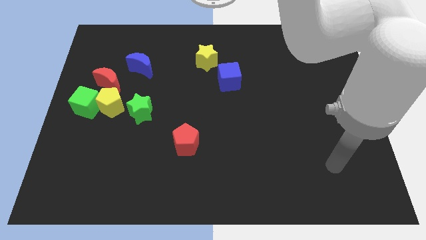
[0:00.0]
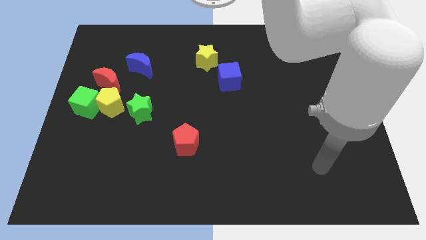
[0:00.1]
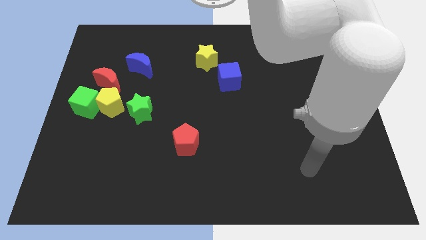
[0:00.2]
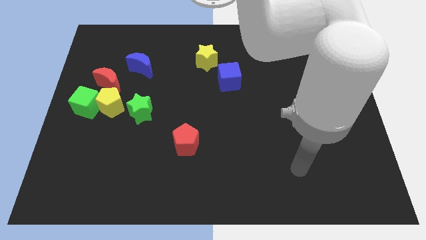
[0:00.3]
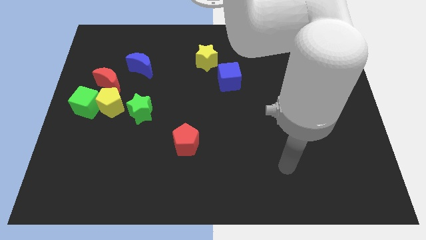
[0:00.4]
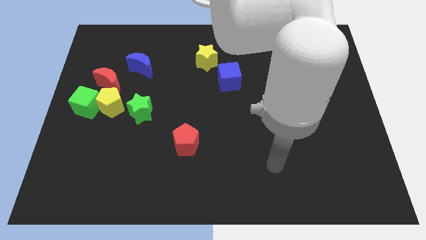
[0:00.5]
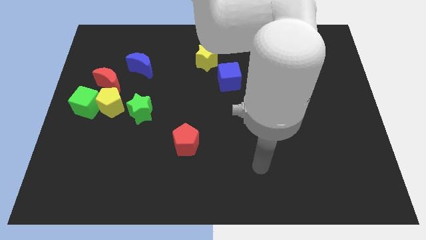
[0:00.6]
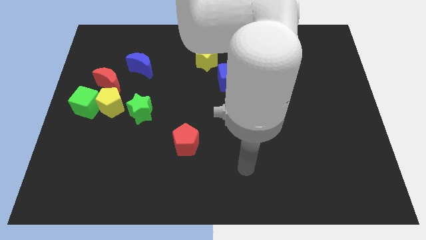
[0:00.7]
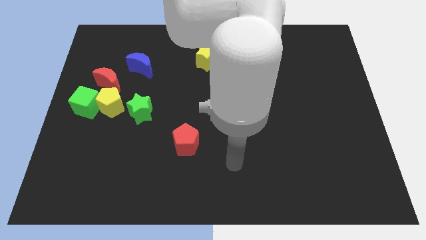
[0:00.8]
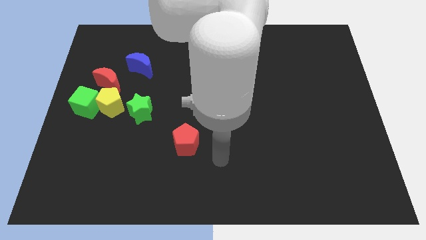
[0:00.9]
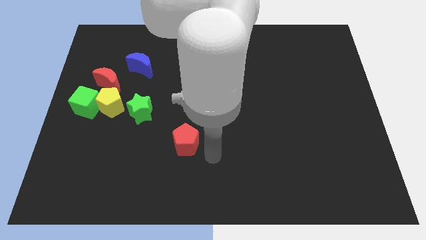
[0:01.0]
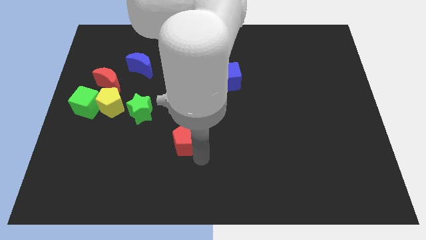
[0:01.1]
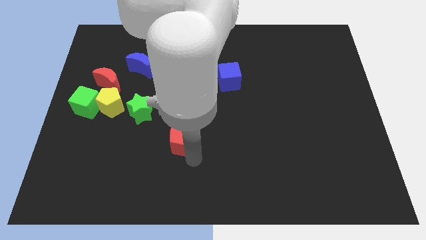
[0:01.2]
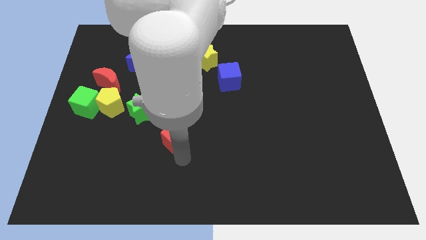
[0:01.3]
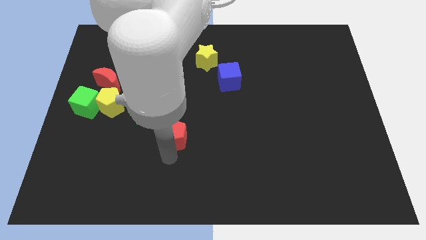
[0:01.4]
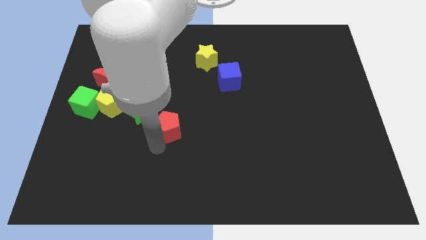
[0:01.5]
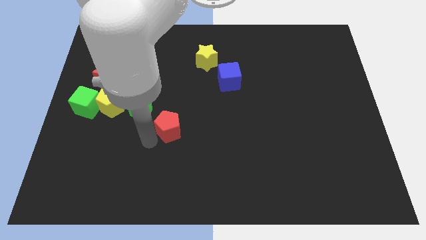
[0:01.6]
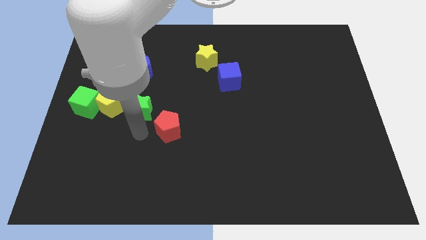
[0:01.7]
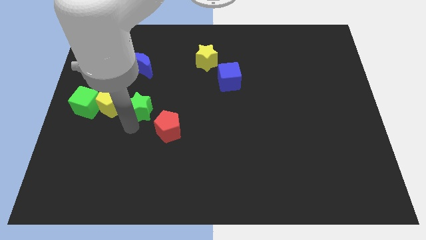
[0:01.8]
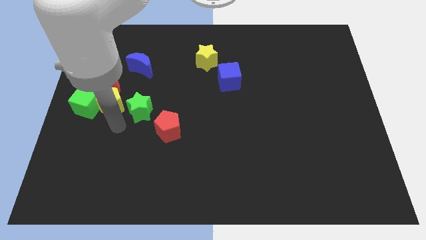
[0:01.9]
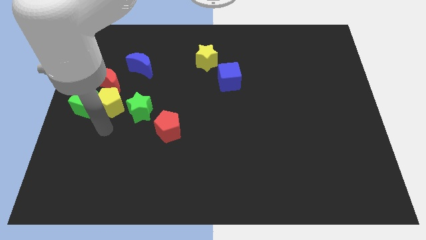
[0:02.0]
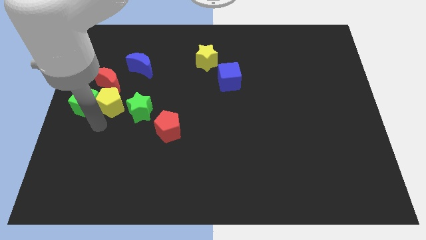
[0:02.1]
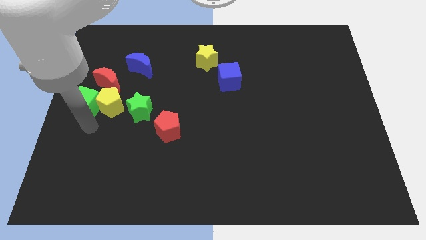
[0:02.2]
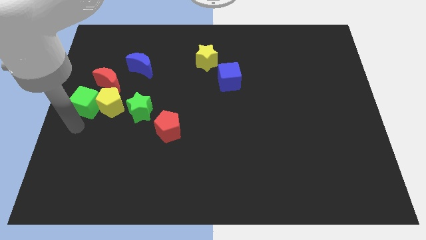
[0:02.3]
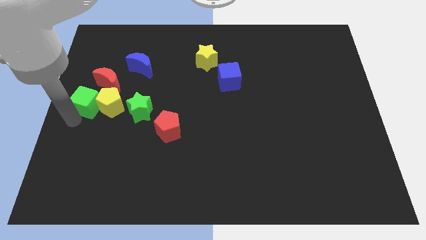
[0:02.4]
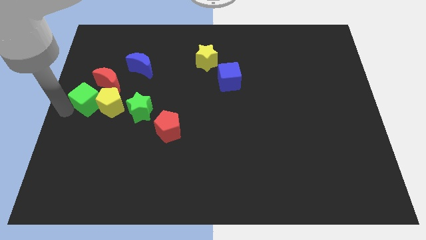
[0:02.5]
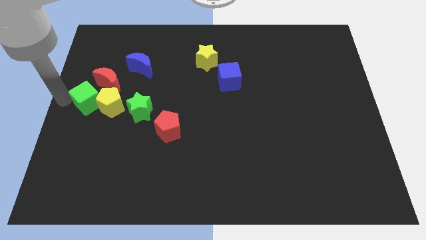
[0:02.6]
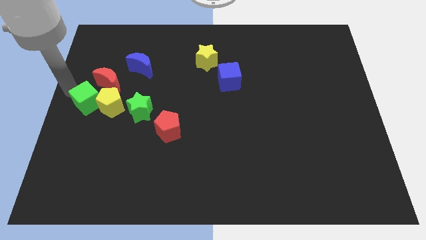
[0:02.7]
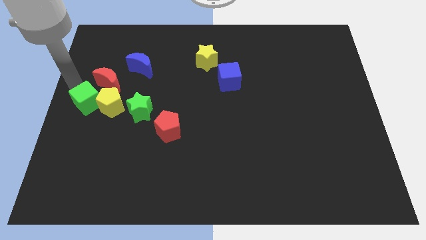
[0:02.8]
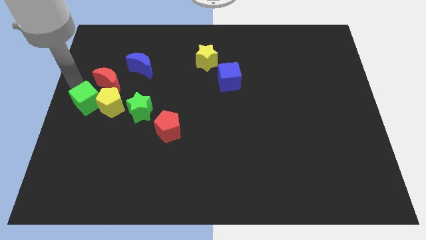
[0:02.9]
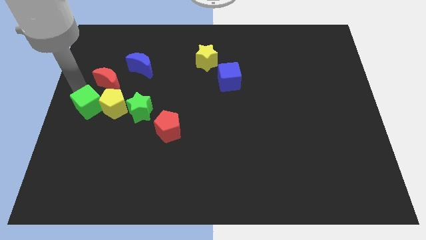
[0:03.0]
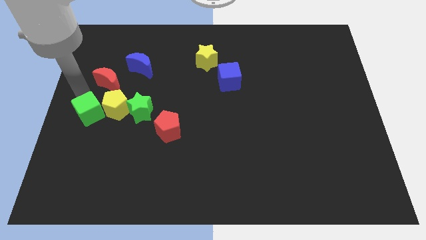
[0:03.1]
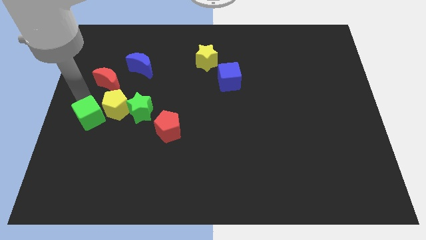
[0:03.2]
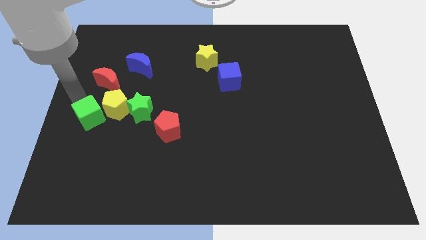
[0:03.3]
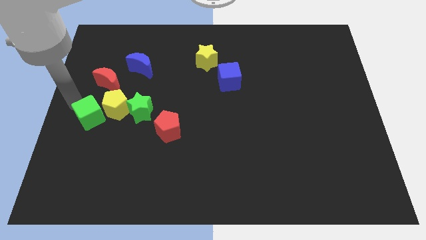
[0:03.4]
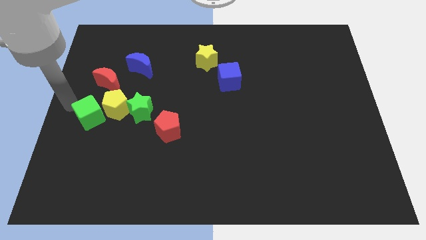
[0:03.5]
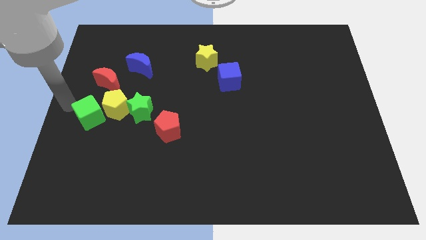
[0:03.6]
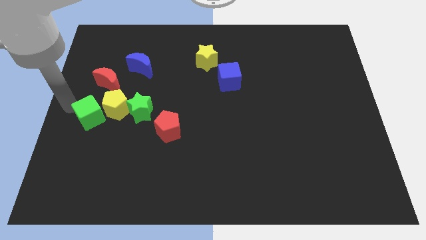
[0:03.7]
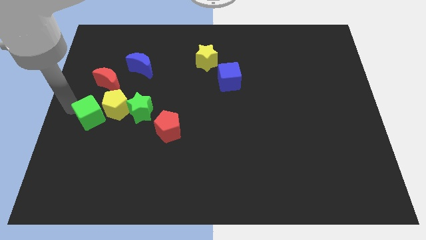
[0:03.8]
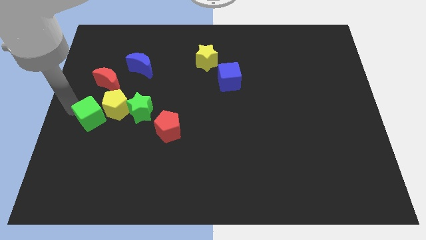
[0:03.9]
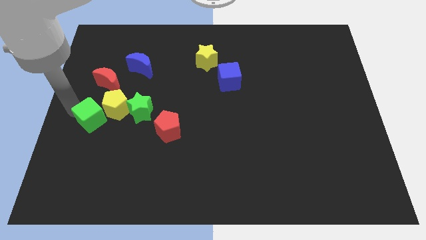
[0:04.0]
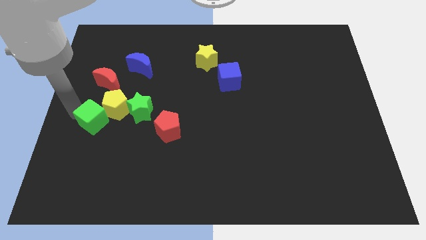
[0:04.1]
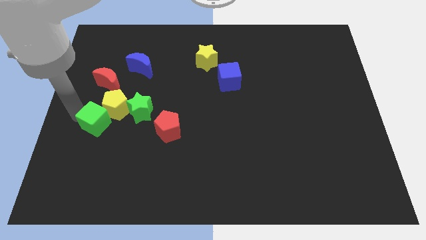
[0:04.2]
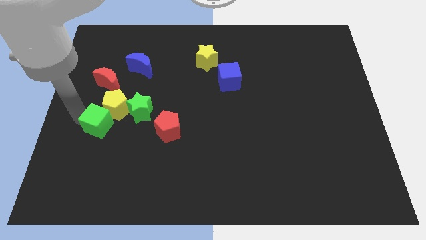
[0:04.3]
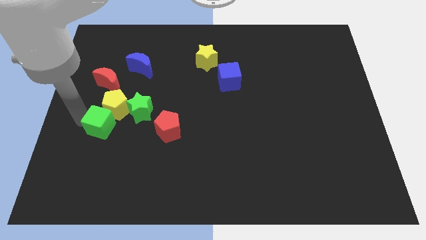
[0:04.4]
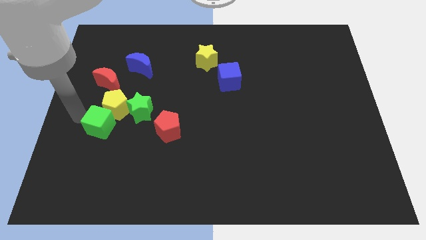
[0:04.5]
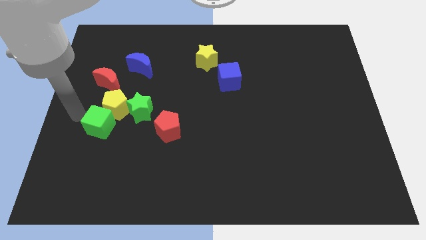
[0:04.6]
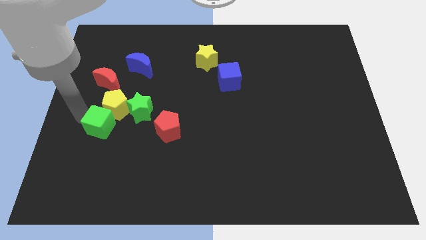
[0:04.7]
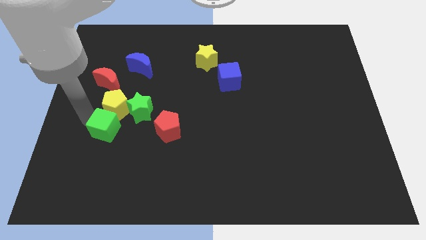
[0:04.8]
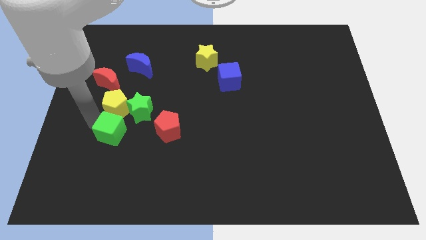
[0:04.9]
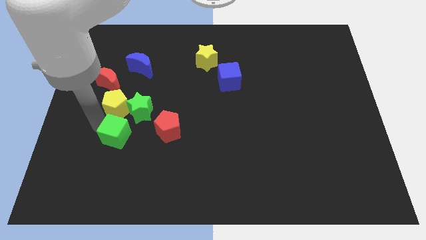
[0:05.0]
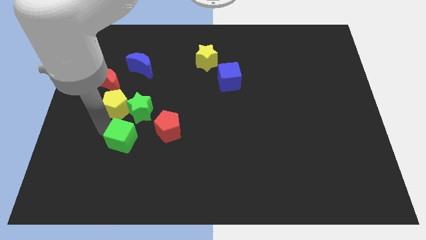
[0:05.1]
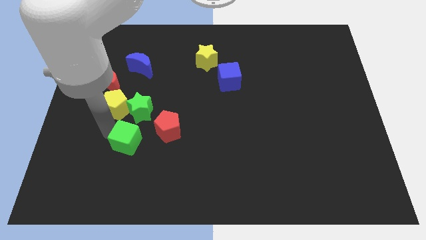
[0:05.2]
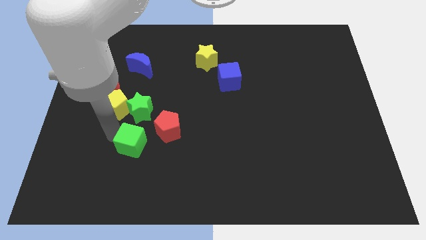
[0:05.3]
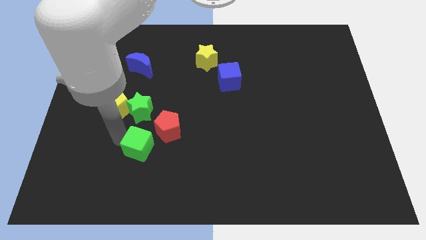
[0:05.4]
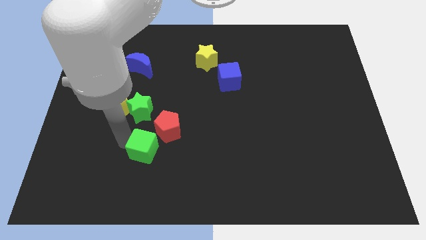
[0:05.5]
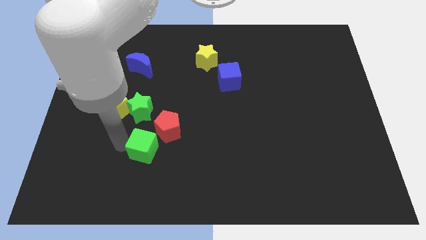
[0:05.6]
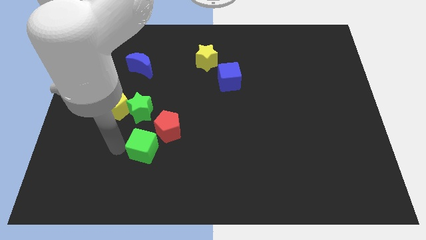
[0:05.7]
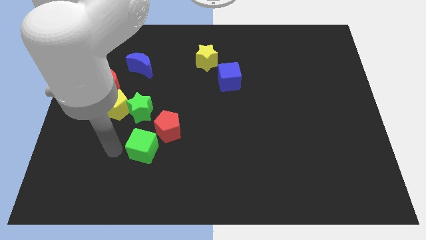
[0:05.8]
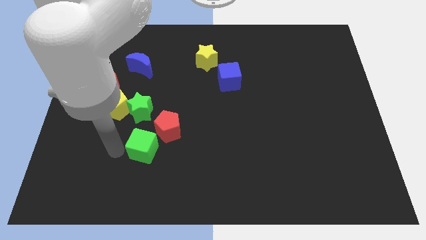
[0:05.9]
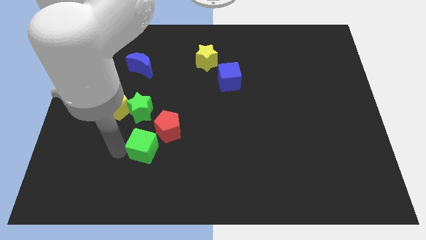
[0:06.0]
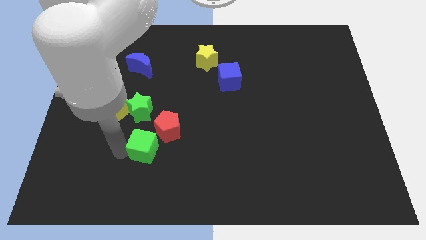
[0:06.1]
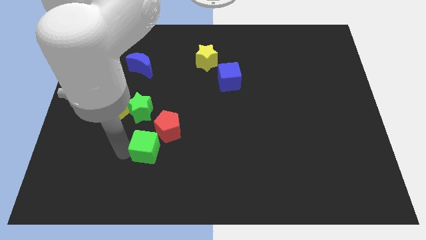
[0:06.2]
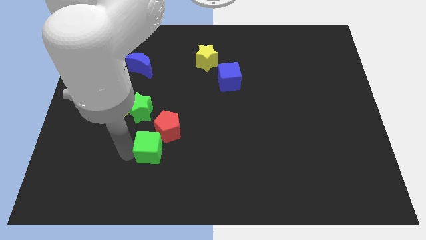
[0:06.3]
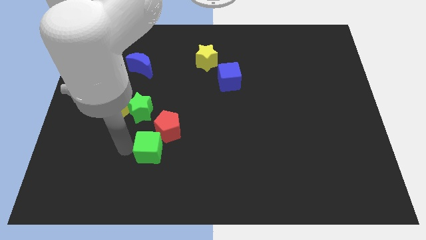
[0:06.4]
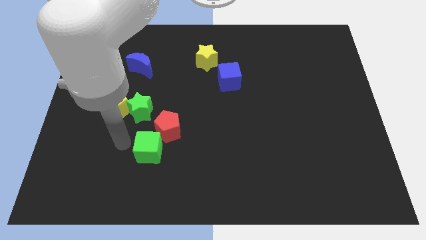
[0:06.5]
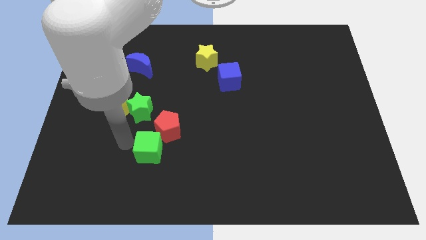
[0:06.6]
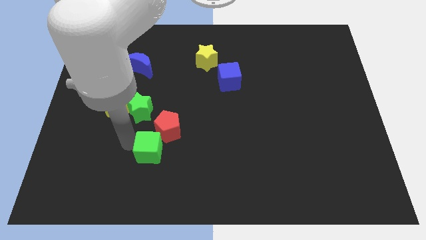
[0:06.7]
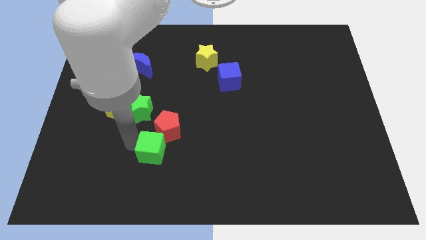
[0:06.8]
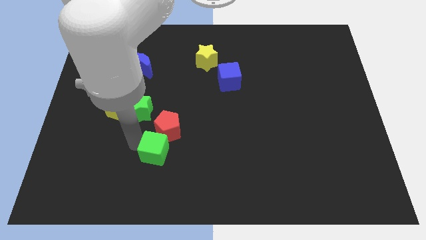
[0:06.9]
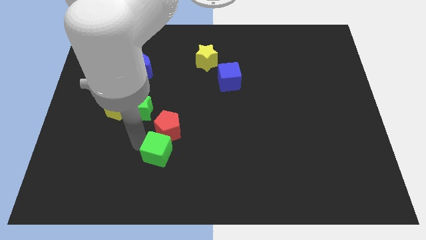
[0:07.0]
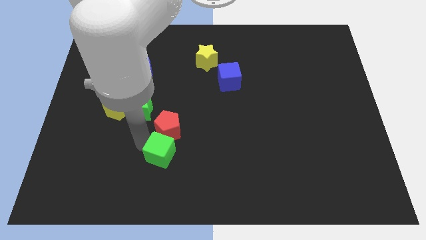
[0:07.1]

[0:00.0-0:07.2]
slide the green cube to the bottom right side of the red pentagon
